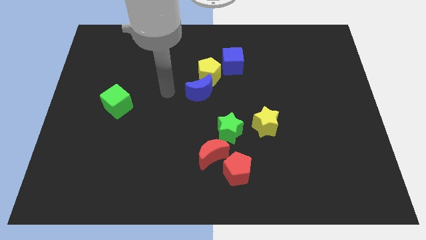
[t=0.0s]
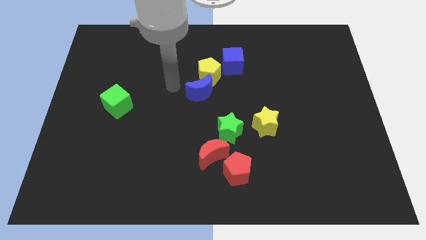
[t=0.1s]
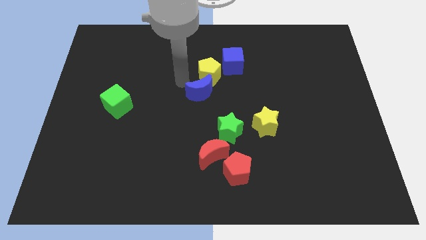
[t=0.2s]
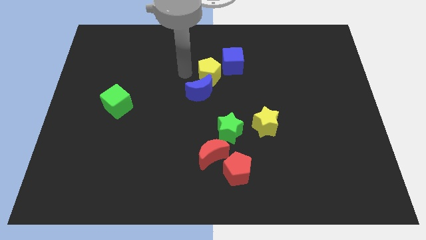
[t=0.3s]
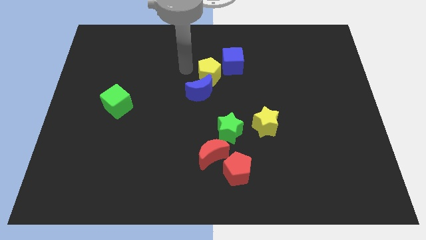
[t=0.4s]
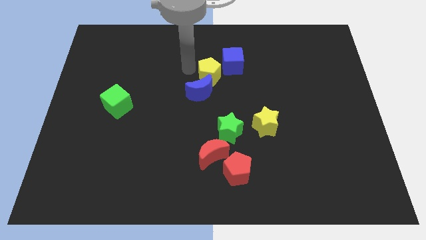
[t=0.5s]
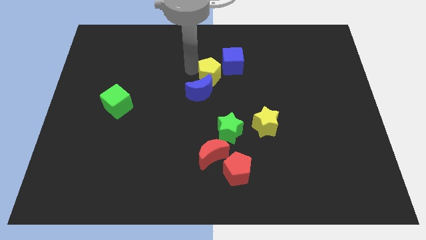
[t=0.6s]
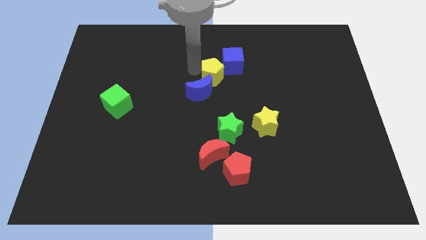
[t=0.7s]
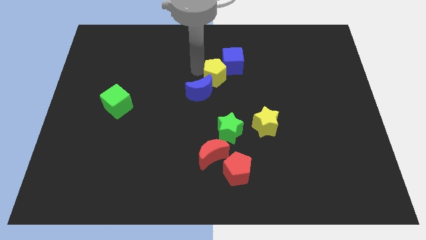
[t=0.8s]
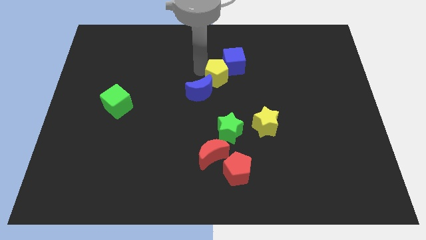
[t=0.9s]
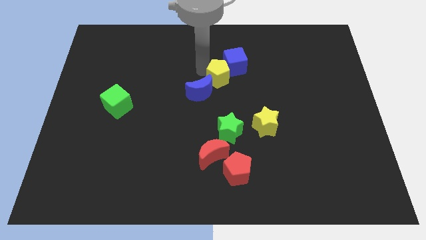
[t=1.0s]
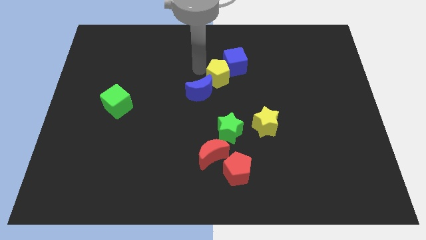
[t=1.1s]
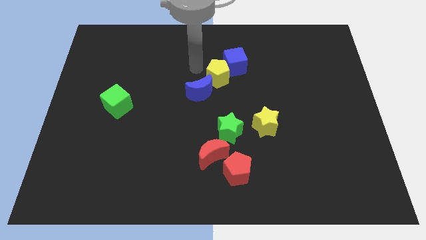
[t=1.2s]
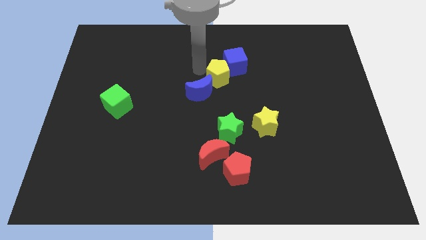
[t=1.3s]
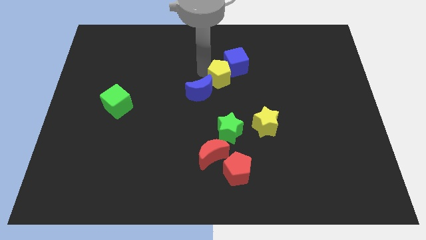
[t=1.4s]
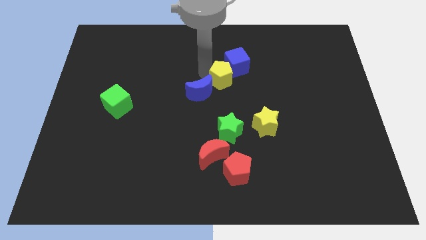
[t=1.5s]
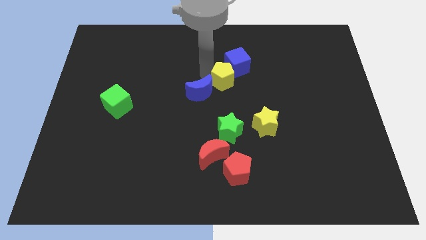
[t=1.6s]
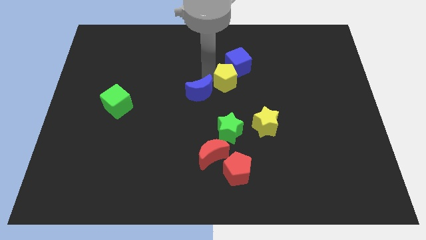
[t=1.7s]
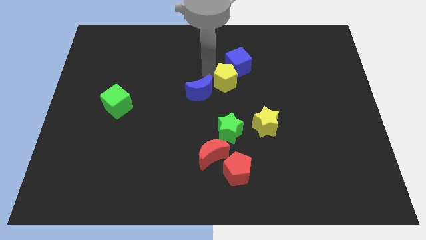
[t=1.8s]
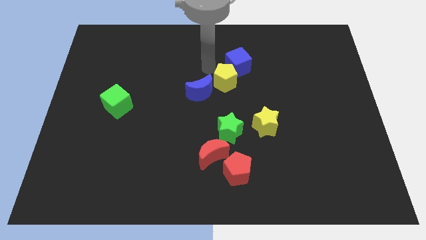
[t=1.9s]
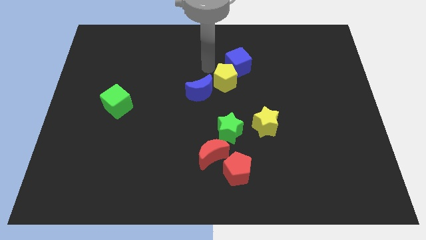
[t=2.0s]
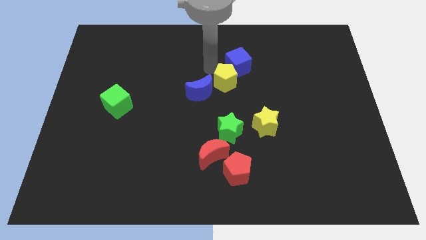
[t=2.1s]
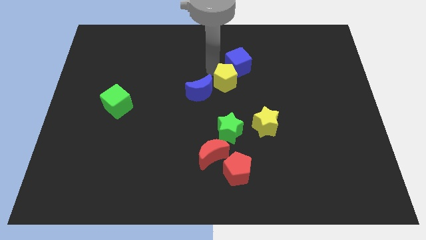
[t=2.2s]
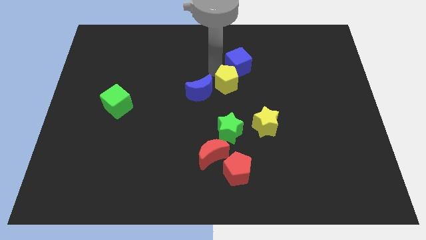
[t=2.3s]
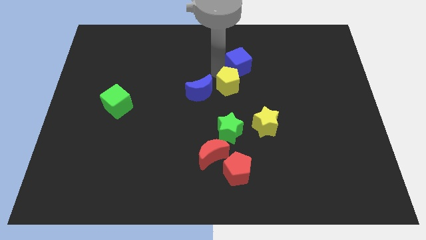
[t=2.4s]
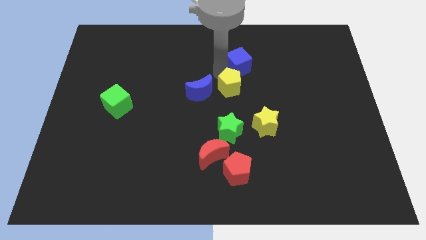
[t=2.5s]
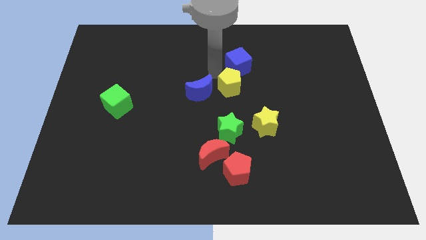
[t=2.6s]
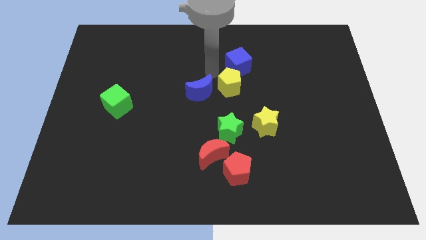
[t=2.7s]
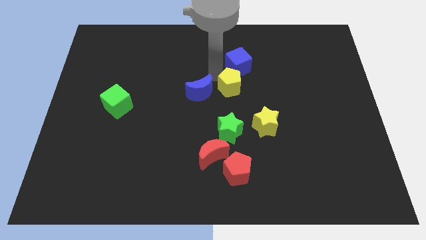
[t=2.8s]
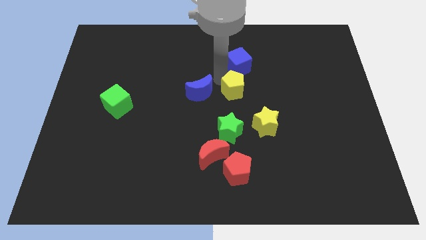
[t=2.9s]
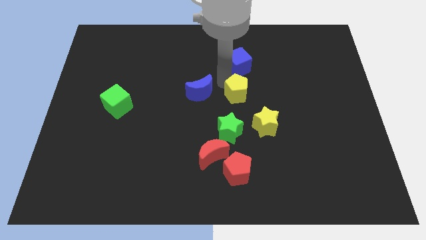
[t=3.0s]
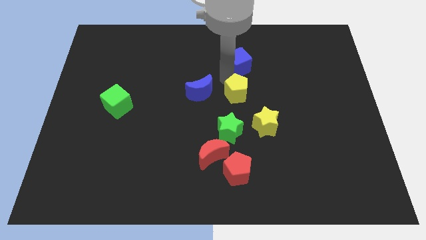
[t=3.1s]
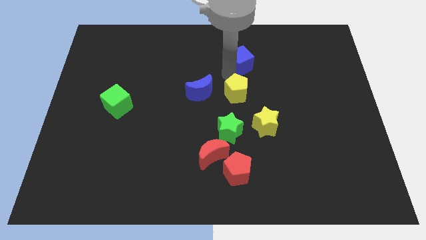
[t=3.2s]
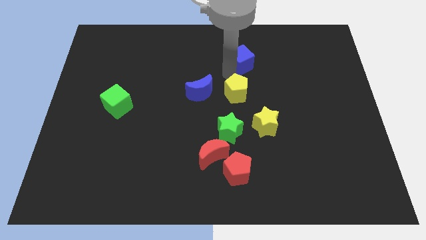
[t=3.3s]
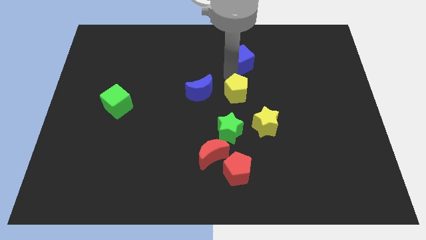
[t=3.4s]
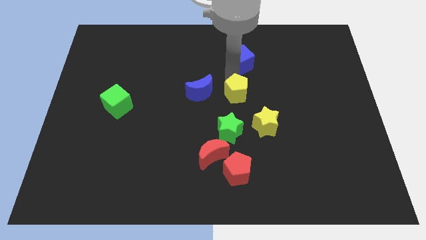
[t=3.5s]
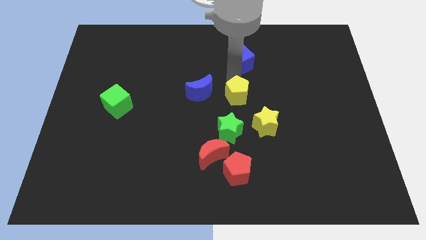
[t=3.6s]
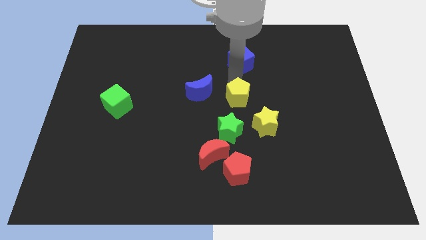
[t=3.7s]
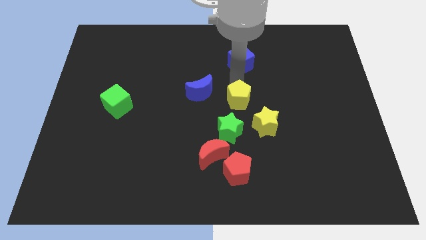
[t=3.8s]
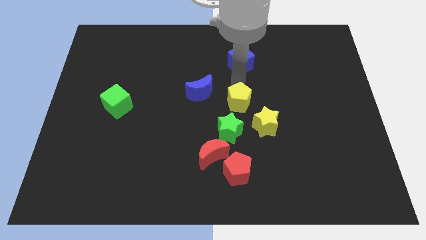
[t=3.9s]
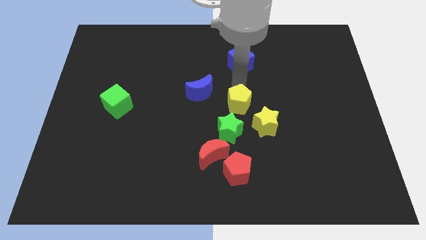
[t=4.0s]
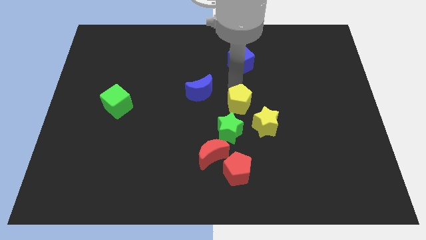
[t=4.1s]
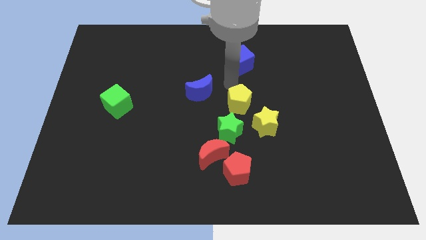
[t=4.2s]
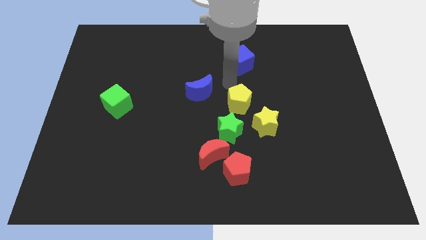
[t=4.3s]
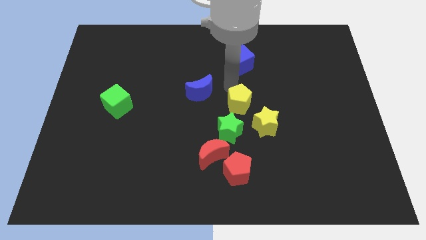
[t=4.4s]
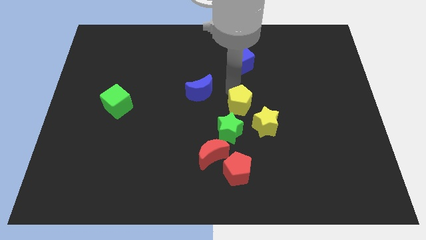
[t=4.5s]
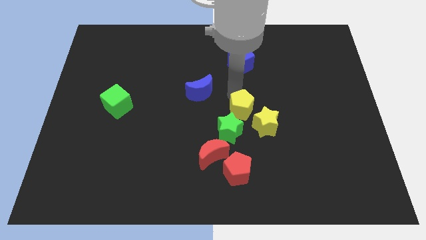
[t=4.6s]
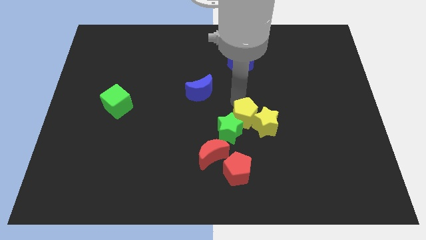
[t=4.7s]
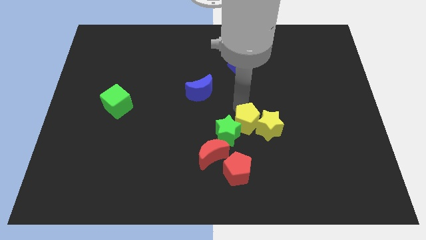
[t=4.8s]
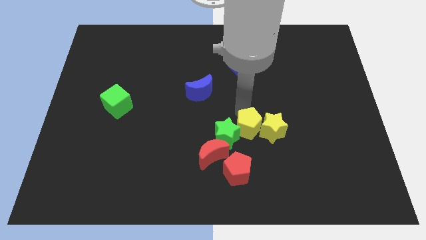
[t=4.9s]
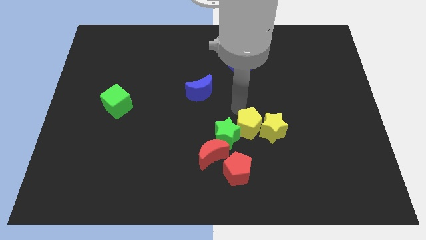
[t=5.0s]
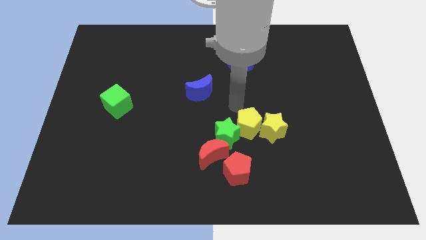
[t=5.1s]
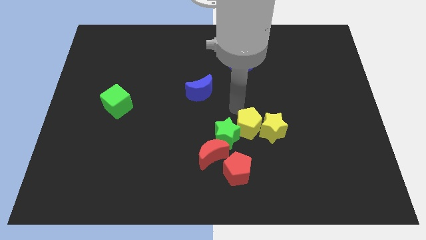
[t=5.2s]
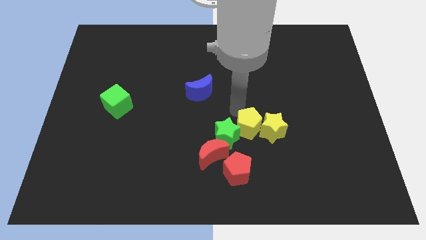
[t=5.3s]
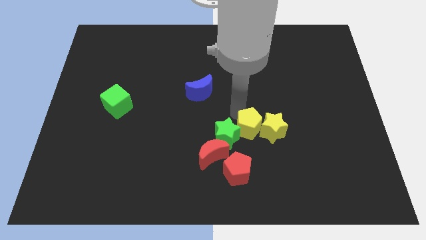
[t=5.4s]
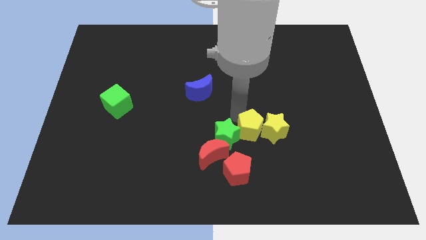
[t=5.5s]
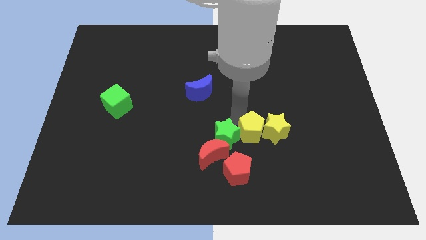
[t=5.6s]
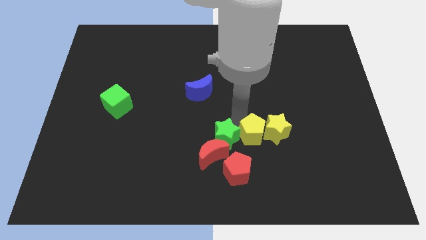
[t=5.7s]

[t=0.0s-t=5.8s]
move the yellow pentagon to the top right of the red pentagon

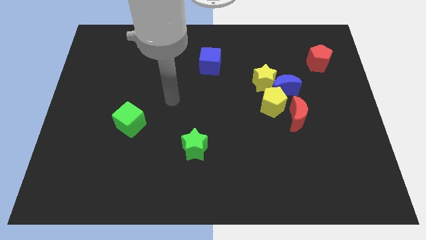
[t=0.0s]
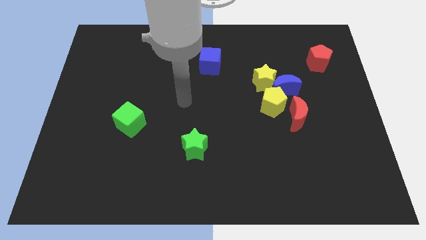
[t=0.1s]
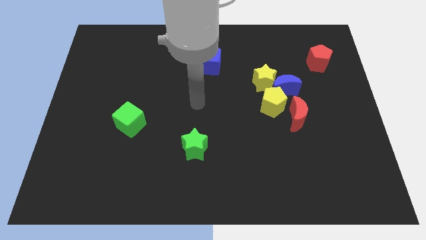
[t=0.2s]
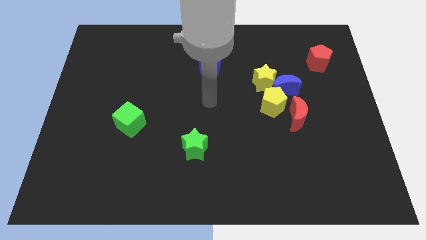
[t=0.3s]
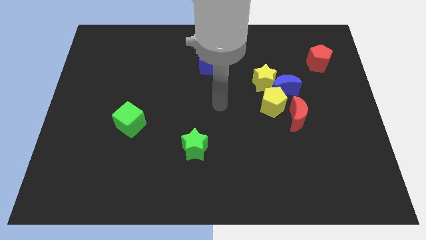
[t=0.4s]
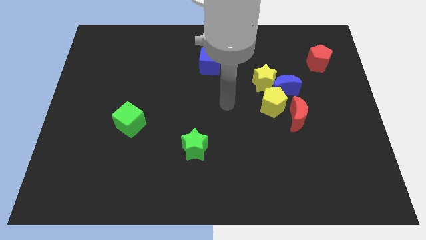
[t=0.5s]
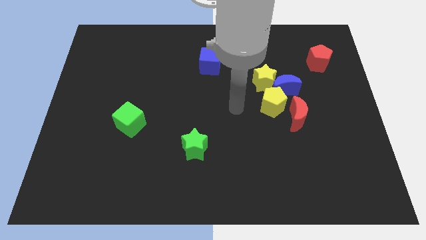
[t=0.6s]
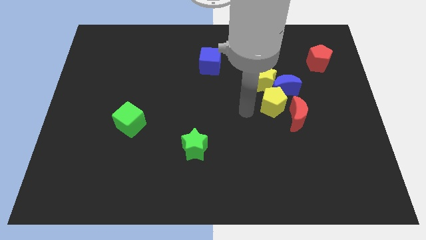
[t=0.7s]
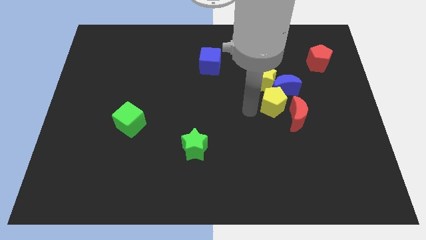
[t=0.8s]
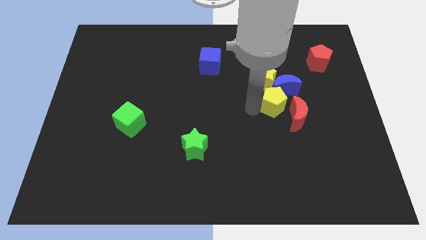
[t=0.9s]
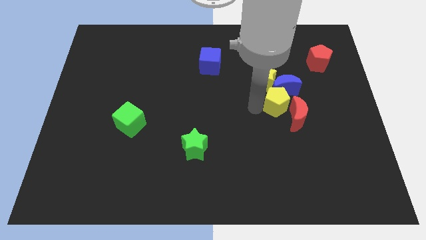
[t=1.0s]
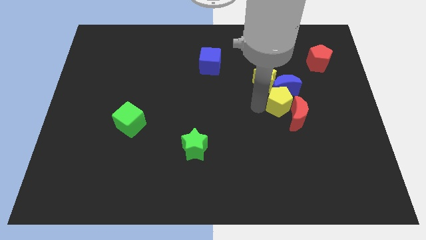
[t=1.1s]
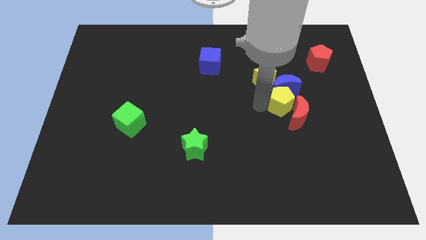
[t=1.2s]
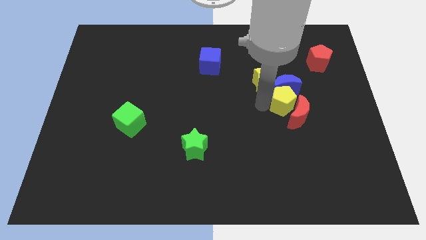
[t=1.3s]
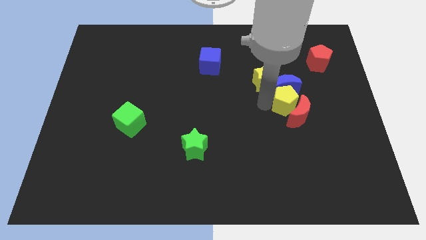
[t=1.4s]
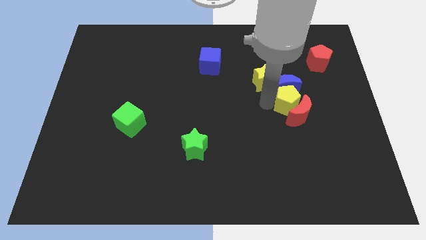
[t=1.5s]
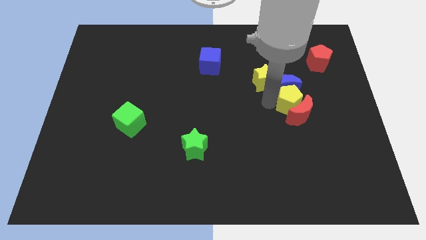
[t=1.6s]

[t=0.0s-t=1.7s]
slide the yellow pentagon to the top right of the red moon
